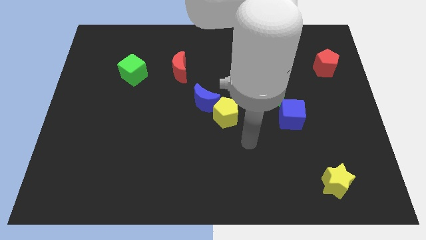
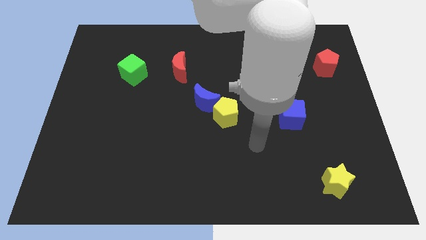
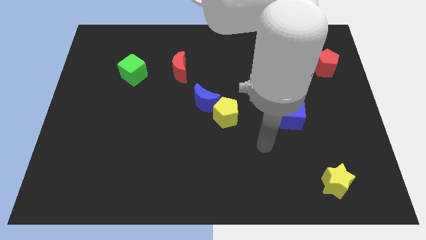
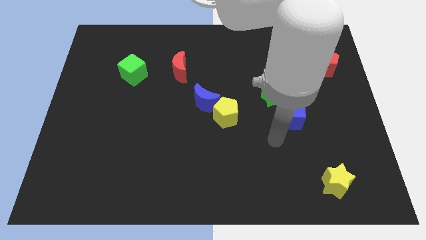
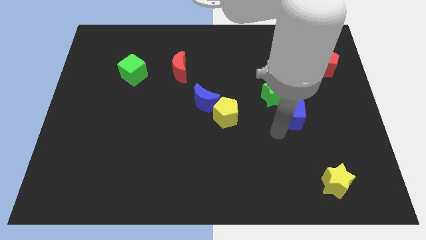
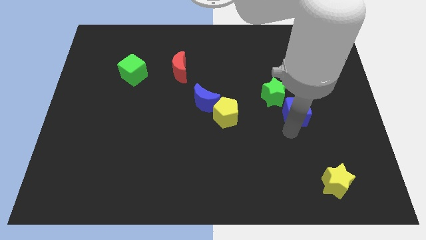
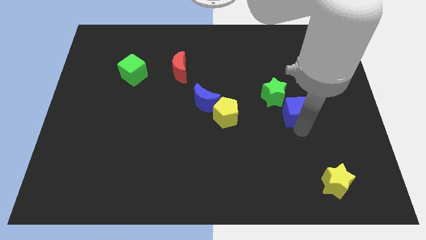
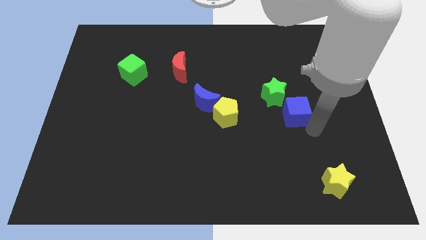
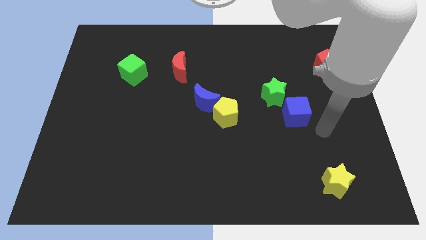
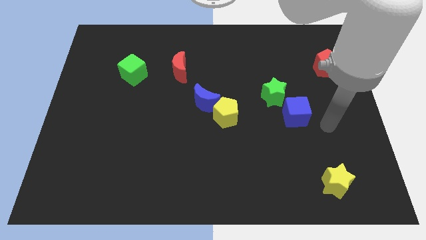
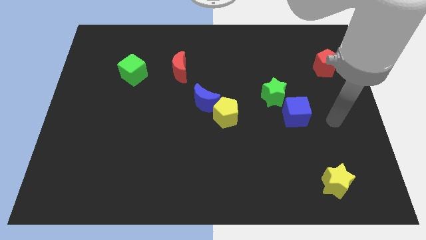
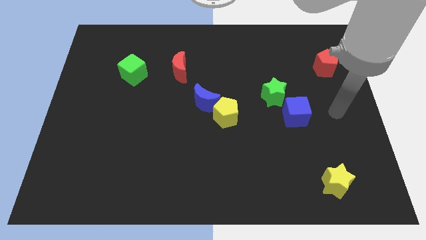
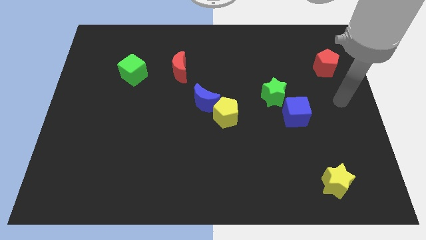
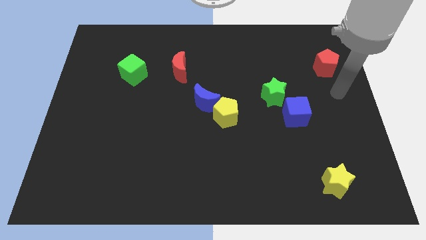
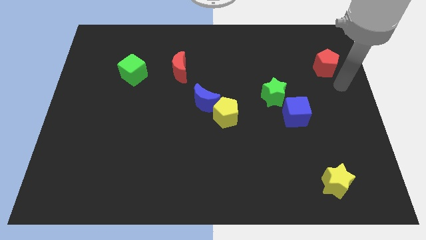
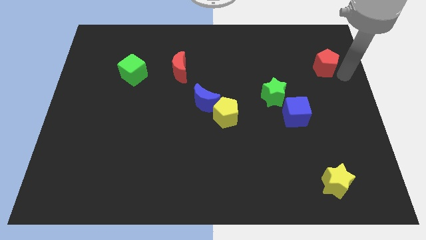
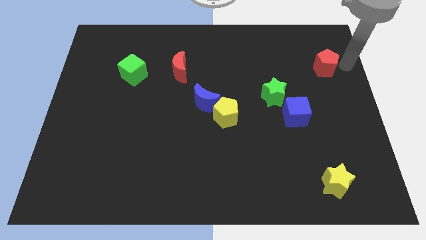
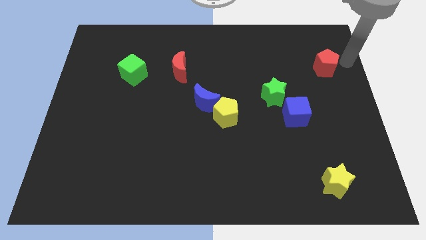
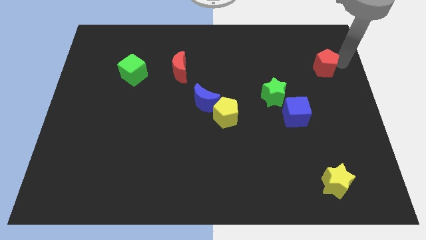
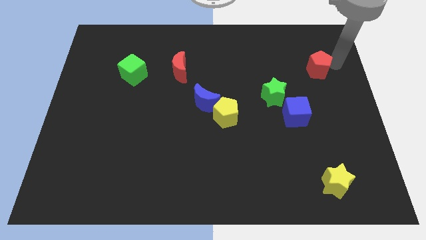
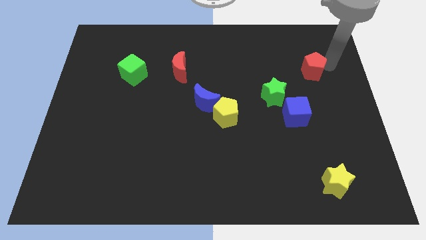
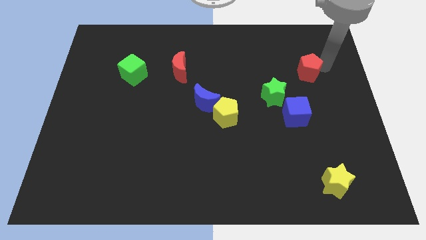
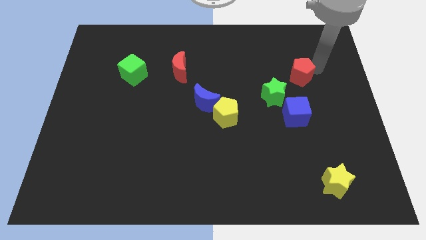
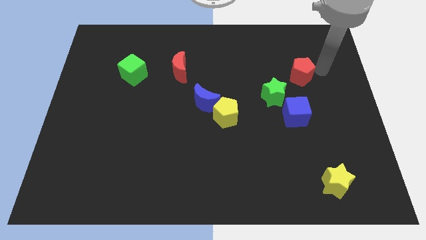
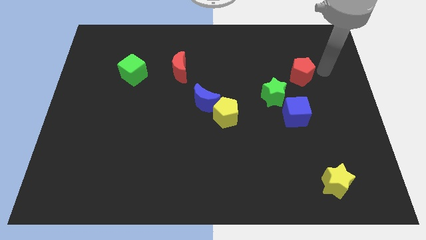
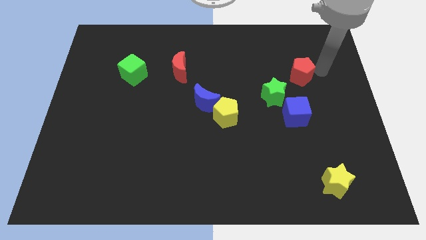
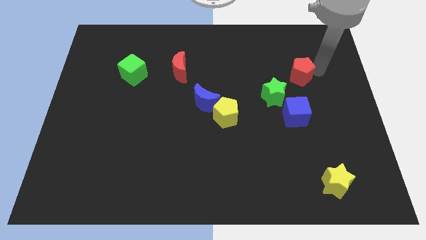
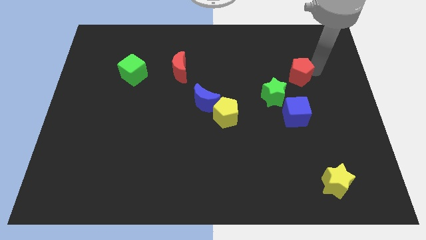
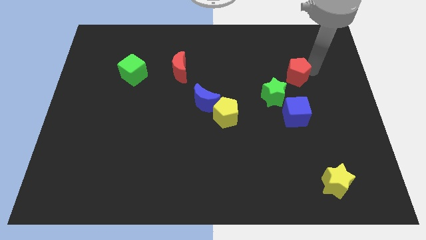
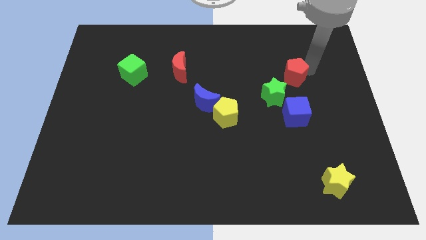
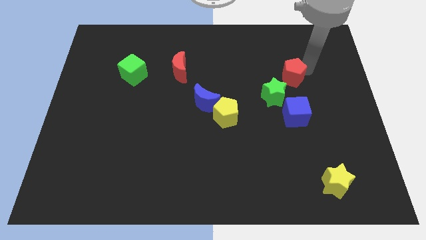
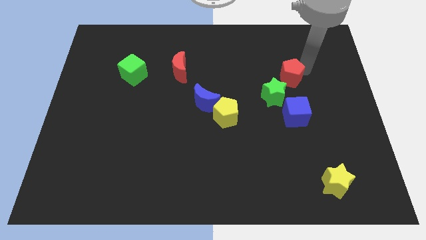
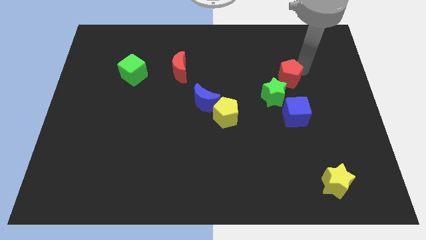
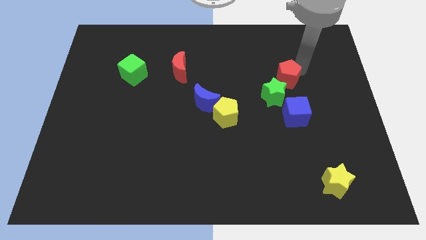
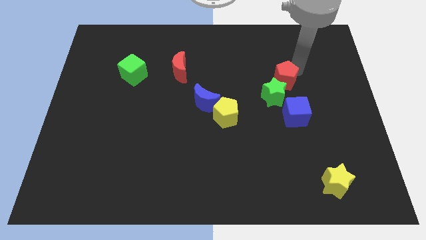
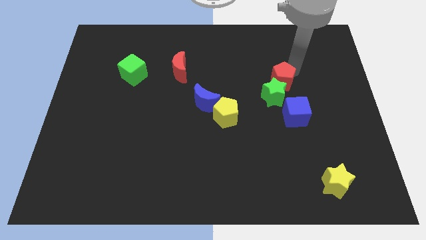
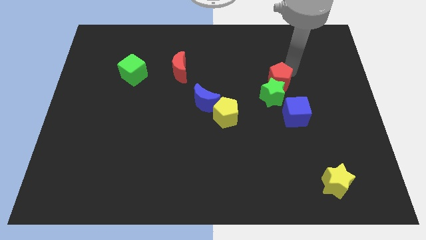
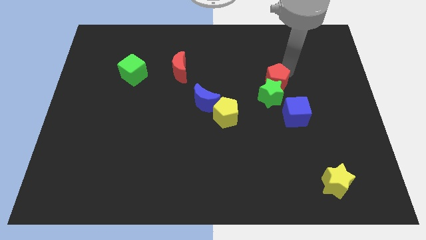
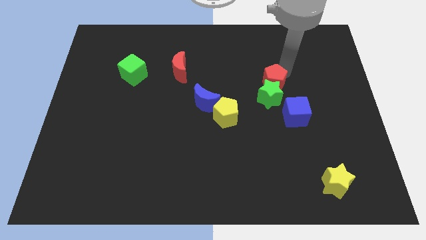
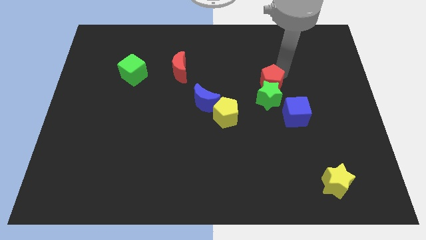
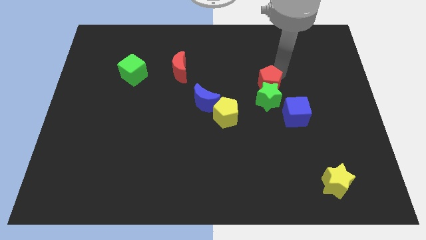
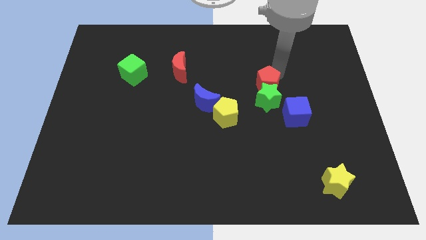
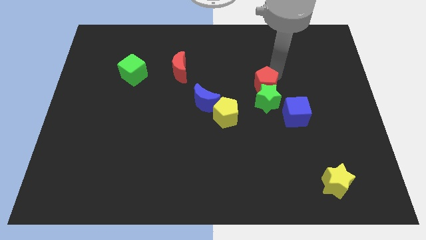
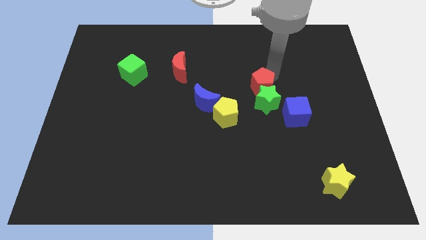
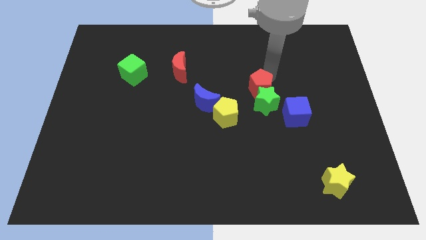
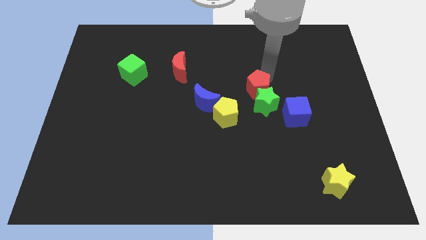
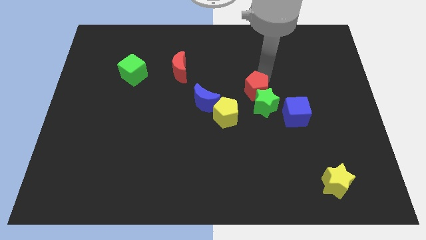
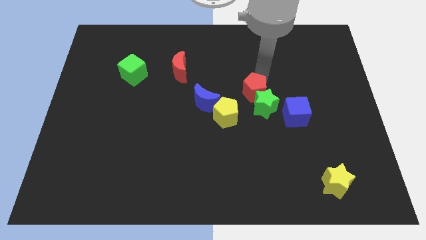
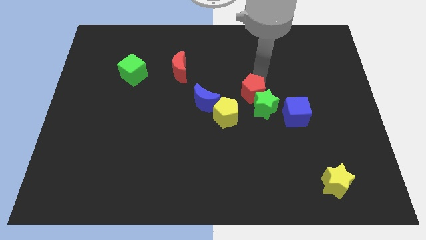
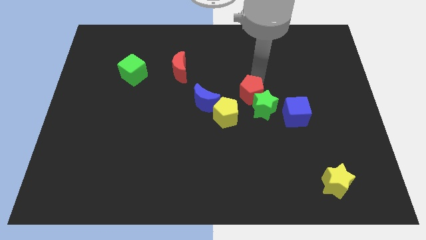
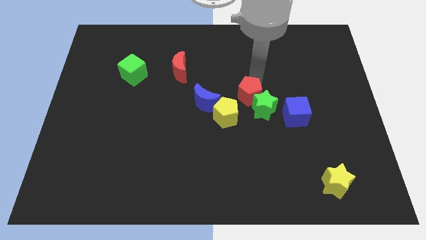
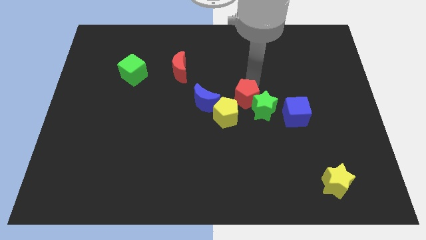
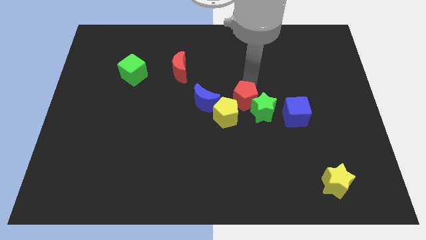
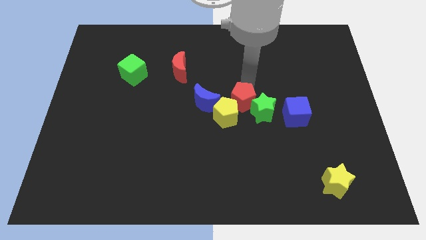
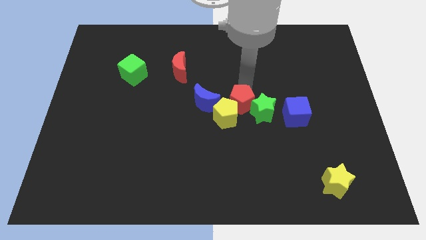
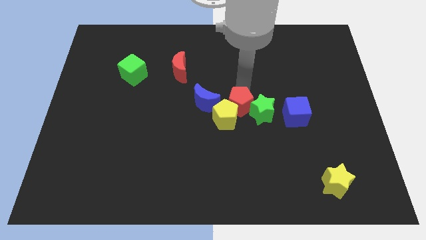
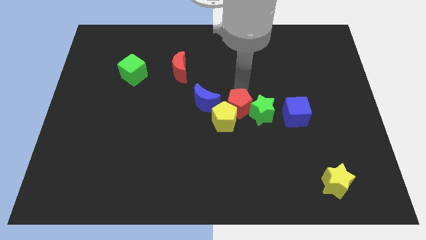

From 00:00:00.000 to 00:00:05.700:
put the red pentagon diagonally down and to the right of the blue moon
